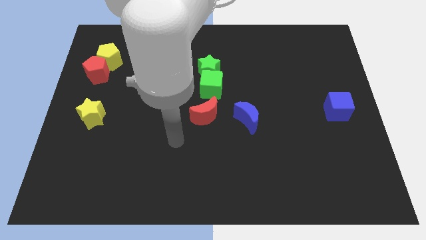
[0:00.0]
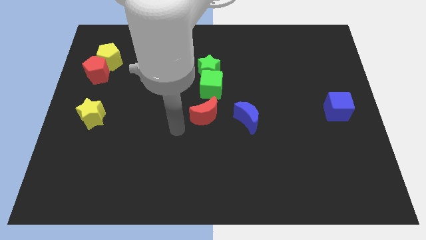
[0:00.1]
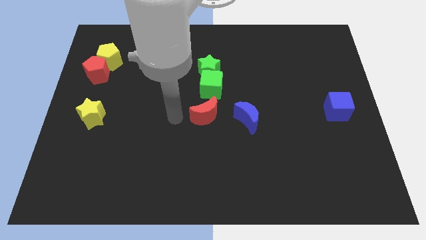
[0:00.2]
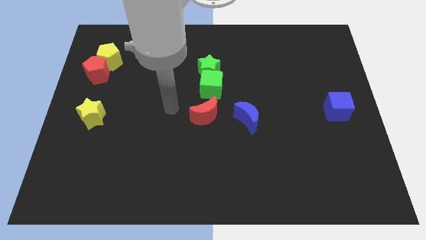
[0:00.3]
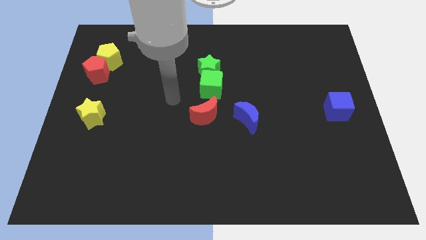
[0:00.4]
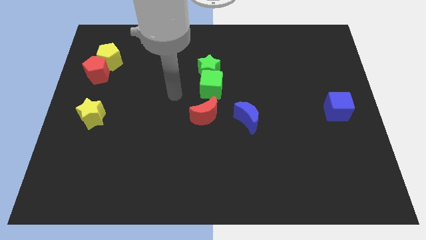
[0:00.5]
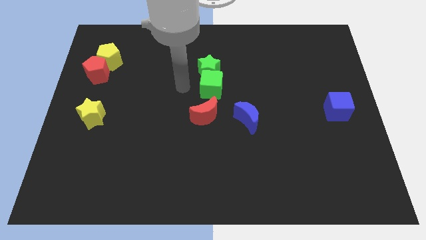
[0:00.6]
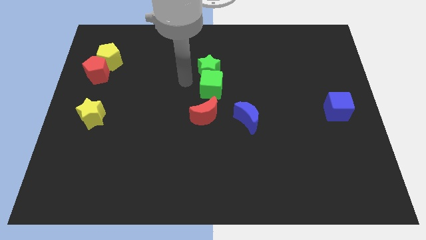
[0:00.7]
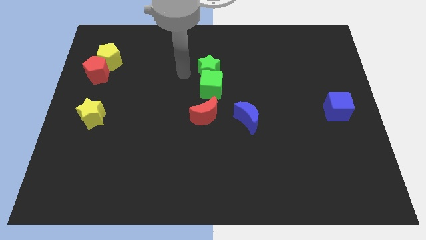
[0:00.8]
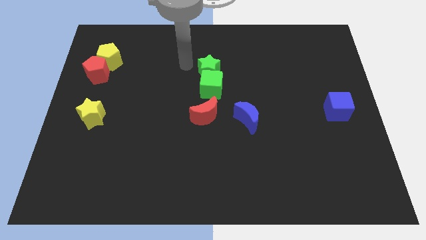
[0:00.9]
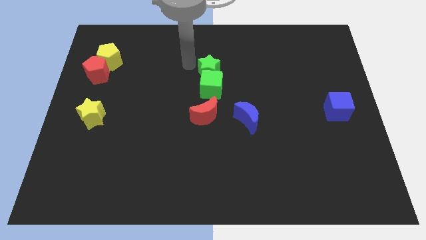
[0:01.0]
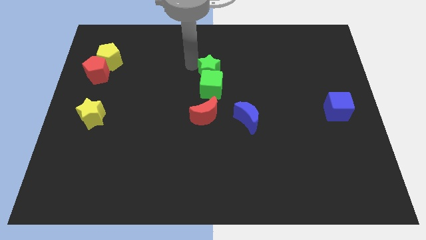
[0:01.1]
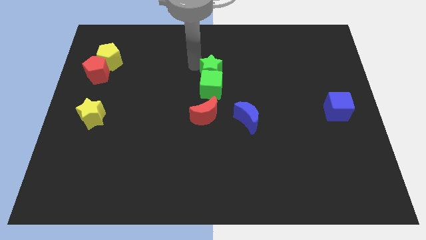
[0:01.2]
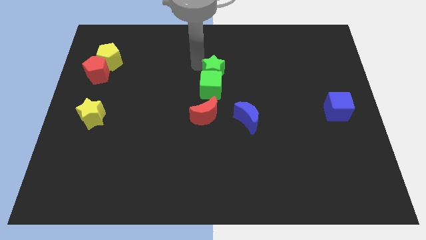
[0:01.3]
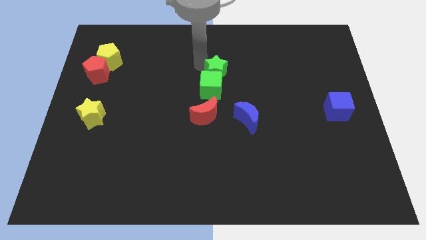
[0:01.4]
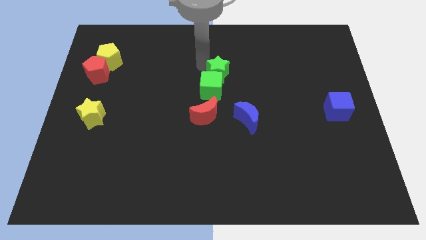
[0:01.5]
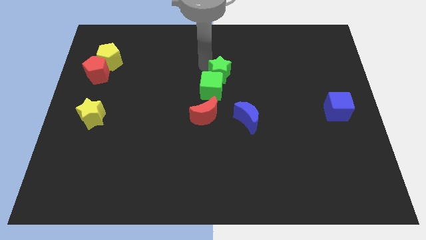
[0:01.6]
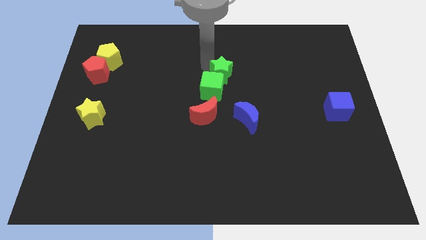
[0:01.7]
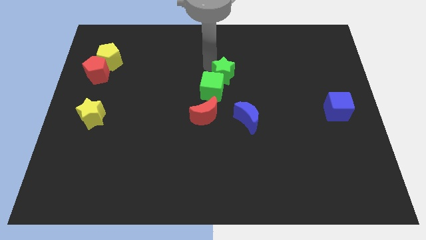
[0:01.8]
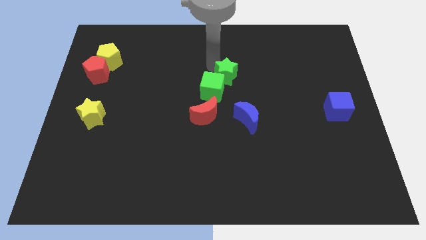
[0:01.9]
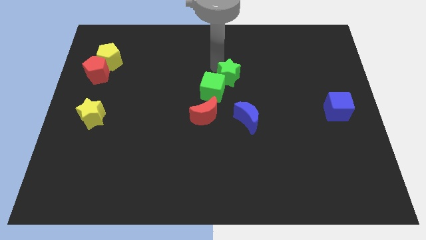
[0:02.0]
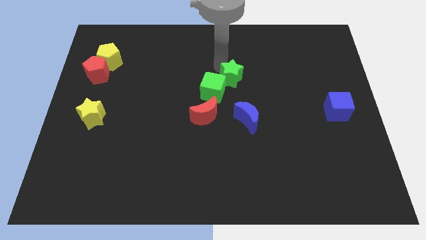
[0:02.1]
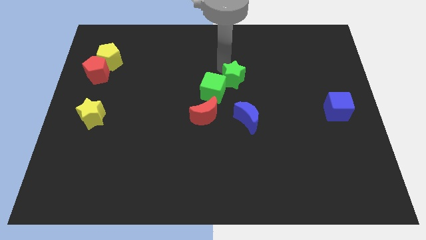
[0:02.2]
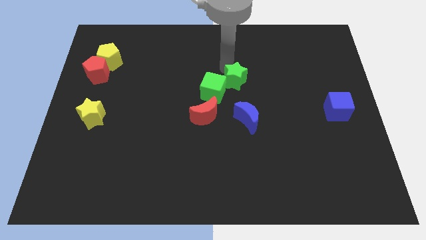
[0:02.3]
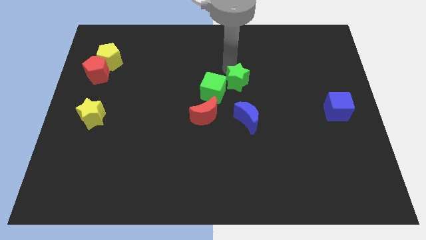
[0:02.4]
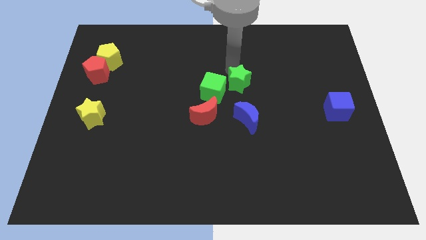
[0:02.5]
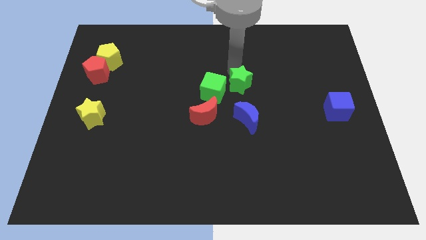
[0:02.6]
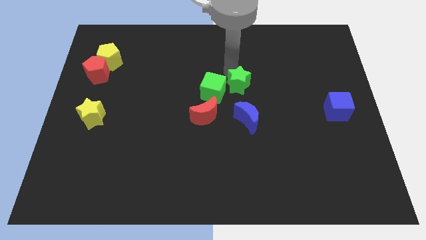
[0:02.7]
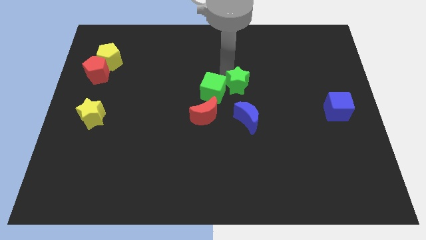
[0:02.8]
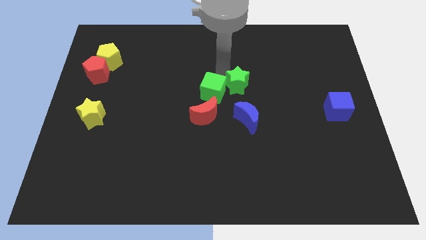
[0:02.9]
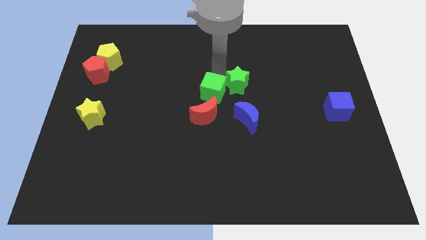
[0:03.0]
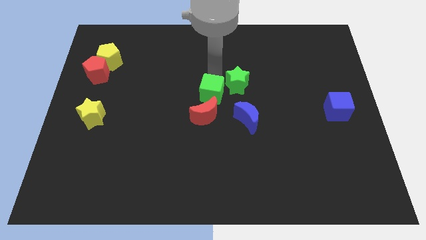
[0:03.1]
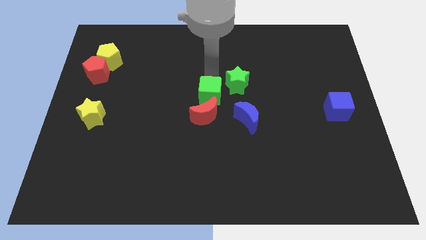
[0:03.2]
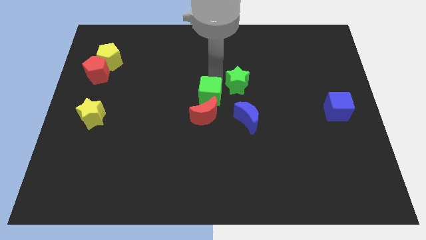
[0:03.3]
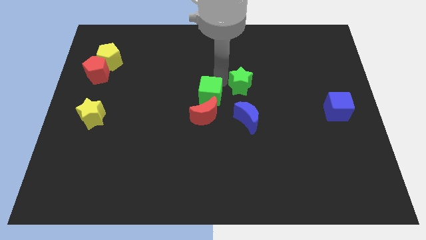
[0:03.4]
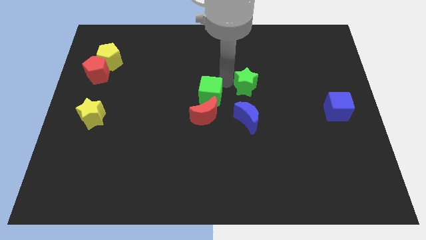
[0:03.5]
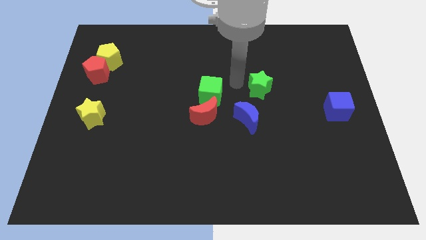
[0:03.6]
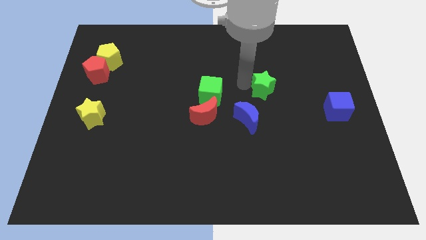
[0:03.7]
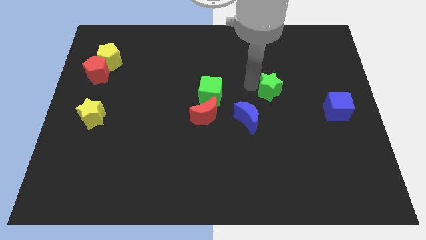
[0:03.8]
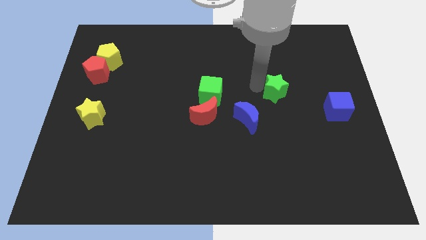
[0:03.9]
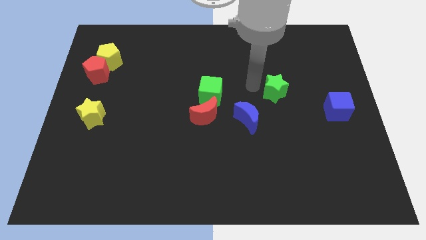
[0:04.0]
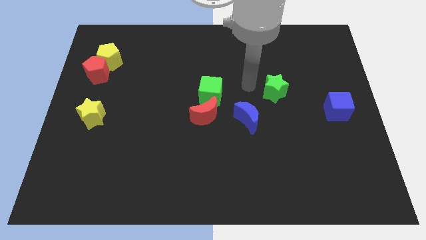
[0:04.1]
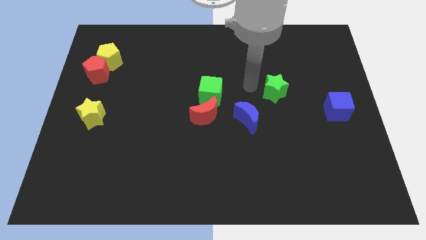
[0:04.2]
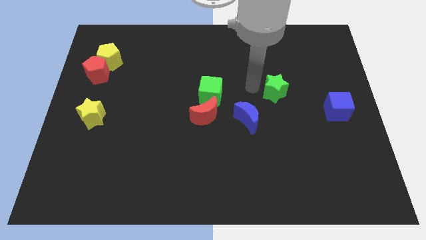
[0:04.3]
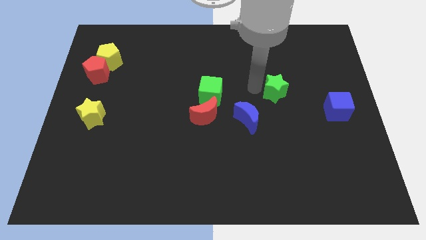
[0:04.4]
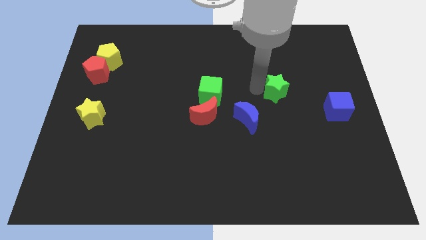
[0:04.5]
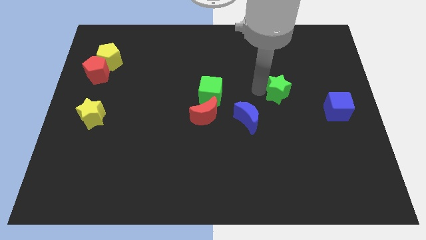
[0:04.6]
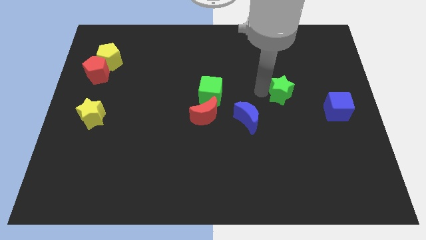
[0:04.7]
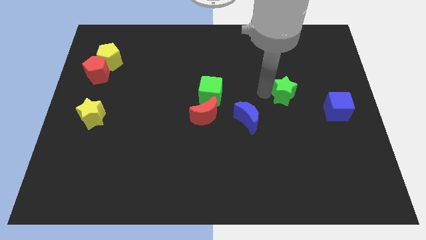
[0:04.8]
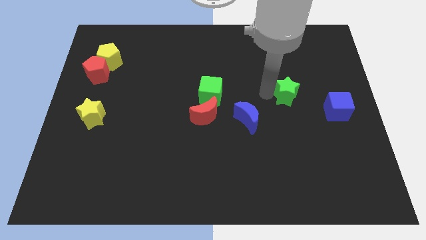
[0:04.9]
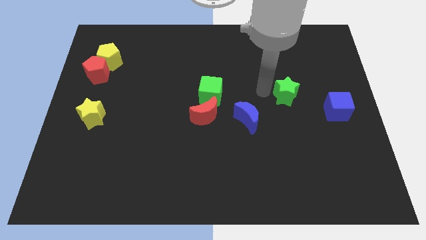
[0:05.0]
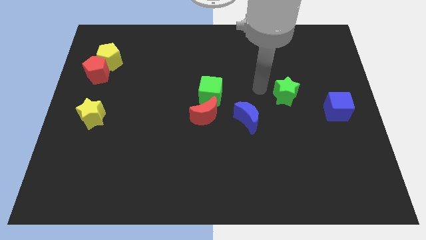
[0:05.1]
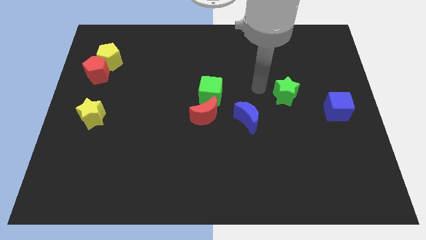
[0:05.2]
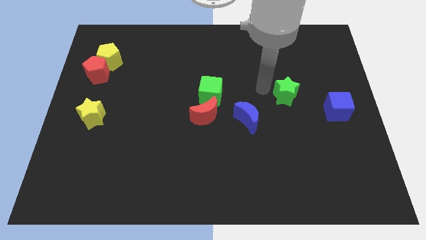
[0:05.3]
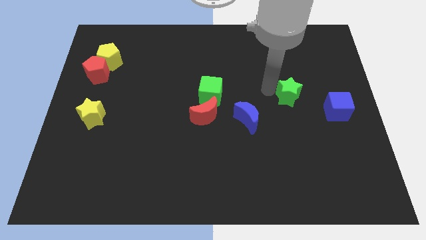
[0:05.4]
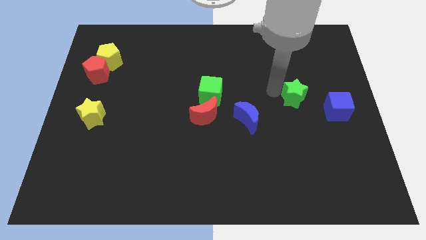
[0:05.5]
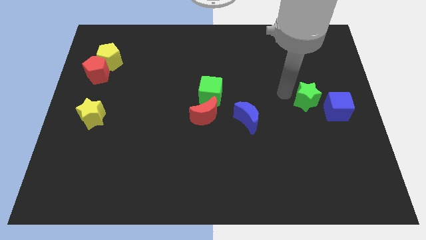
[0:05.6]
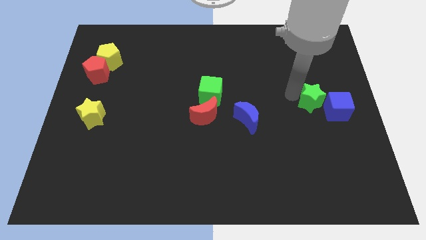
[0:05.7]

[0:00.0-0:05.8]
push the green star close to the blue cube

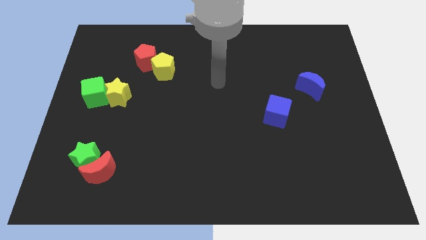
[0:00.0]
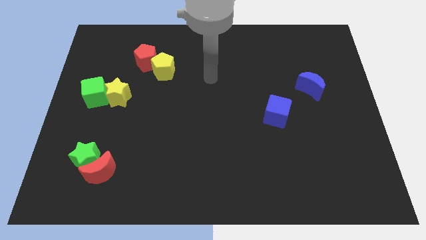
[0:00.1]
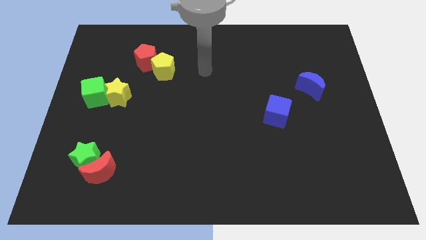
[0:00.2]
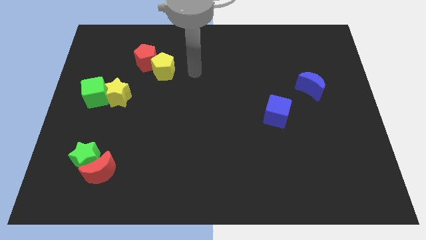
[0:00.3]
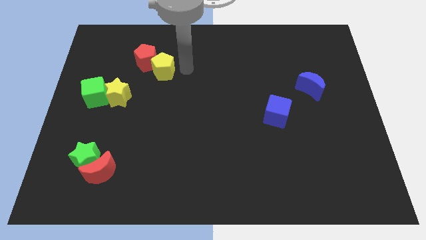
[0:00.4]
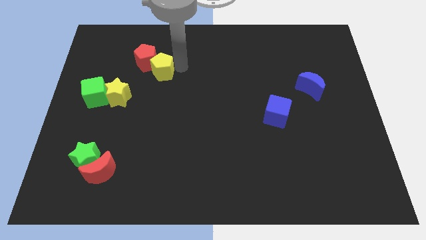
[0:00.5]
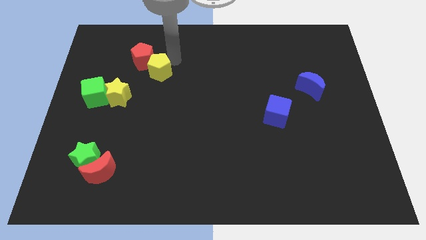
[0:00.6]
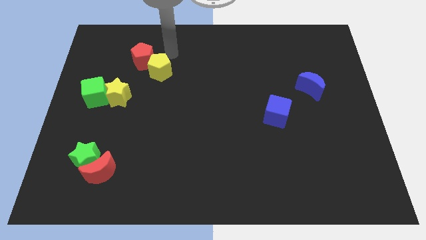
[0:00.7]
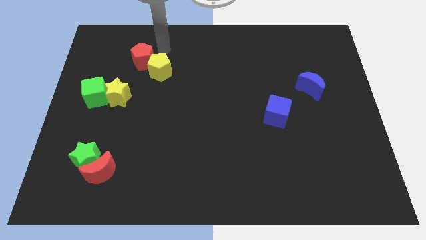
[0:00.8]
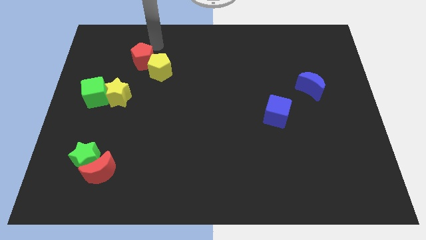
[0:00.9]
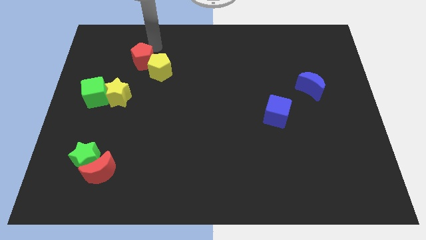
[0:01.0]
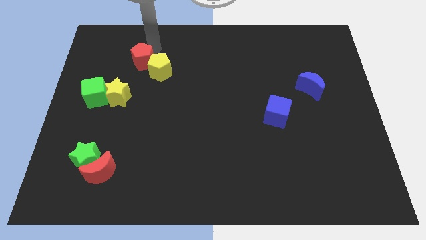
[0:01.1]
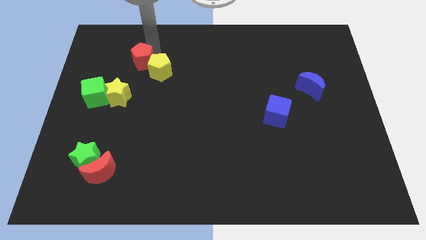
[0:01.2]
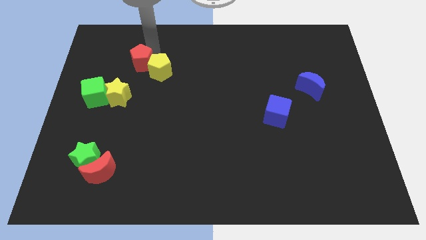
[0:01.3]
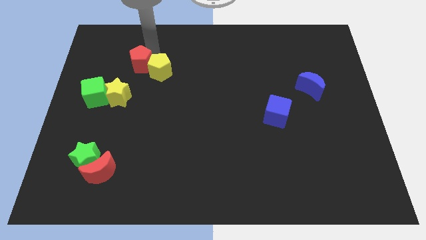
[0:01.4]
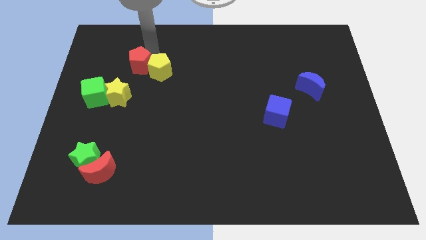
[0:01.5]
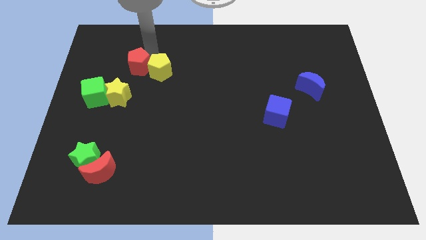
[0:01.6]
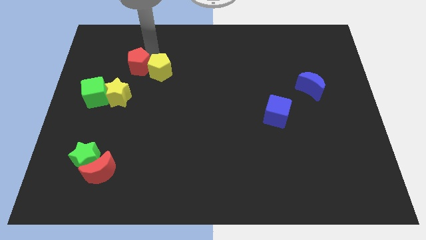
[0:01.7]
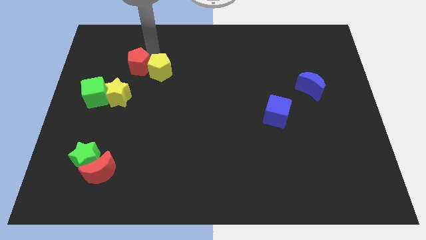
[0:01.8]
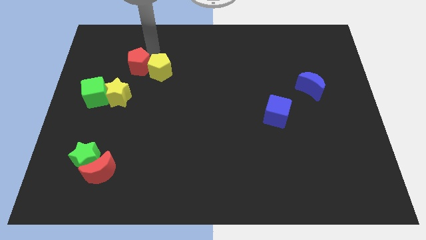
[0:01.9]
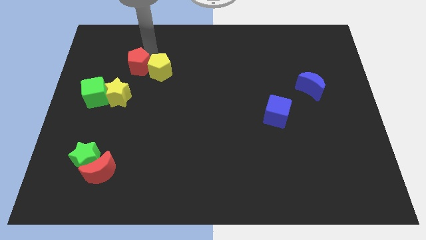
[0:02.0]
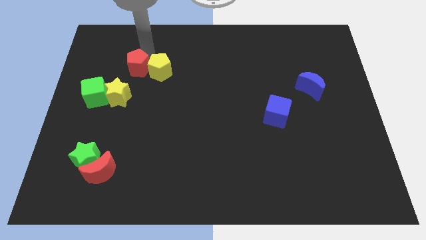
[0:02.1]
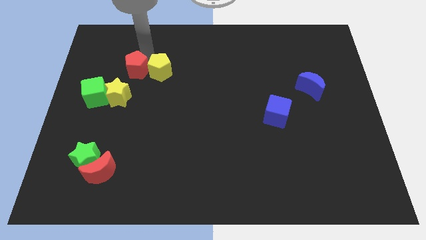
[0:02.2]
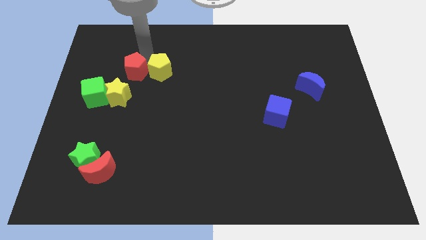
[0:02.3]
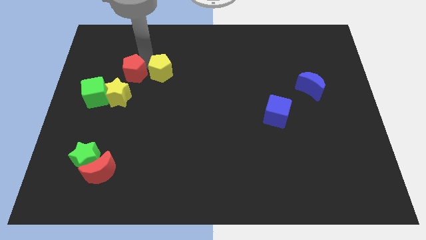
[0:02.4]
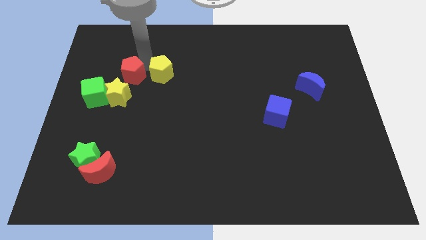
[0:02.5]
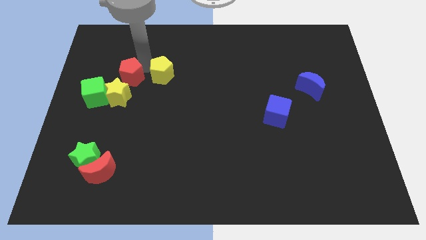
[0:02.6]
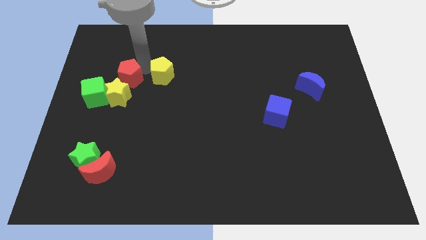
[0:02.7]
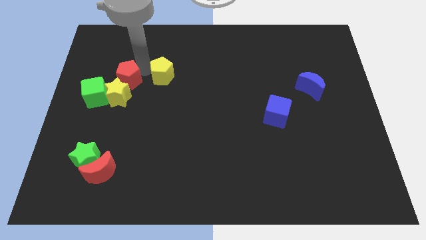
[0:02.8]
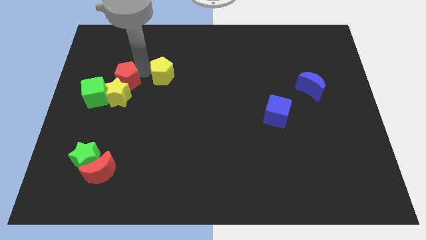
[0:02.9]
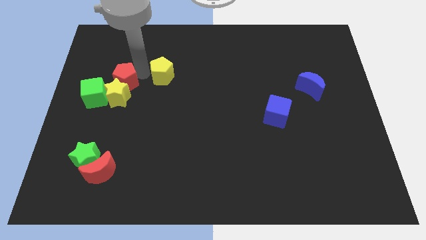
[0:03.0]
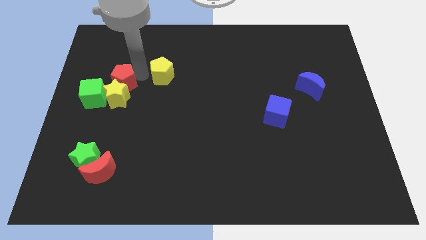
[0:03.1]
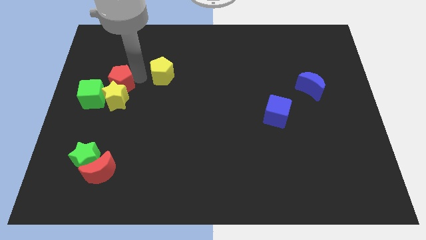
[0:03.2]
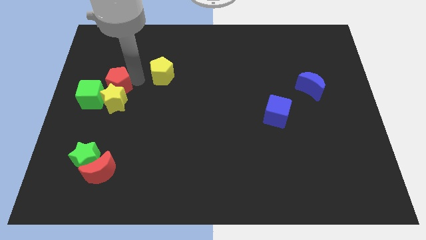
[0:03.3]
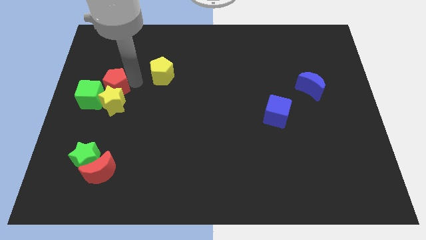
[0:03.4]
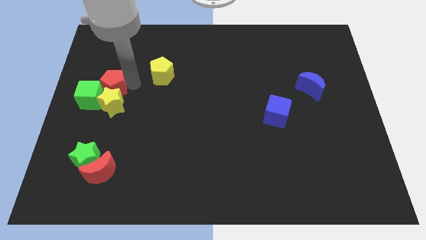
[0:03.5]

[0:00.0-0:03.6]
push the red pentagon to the green cube
